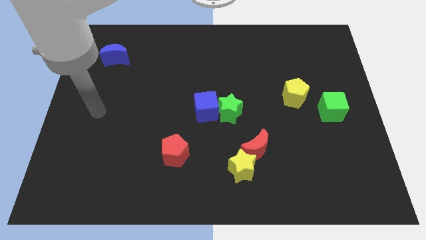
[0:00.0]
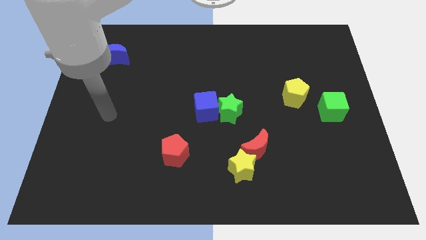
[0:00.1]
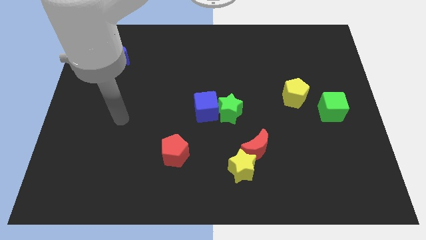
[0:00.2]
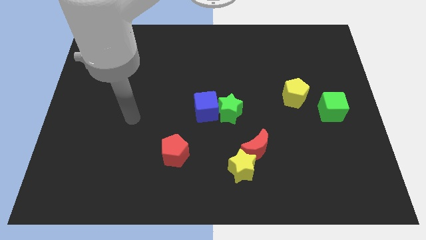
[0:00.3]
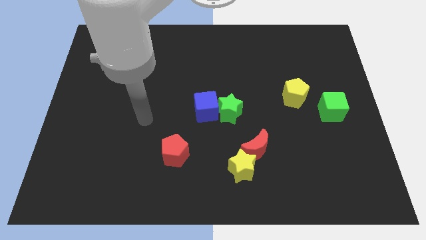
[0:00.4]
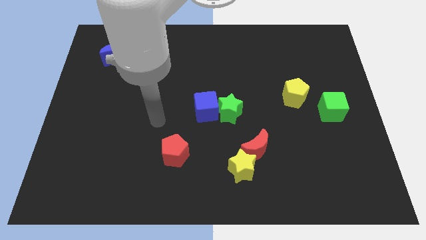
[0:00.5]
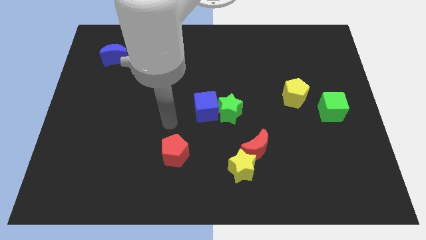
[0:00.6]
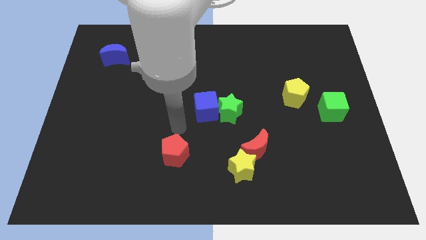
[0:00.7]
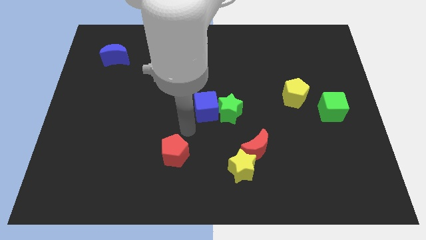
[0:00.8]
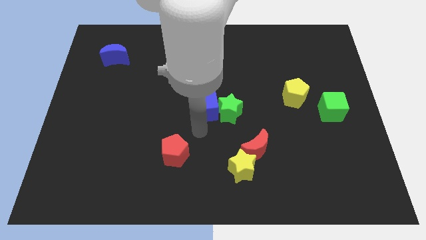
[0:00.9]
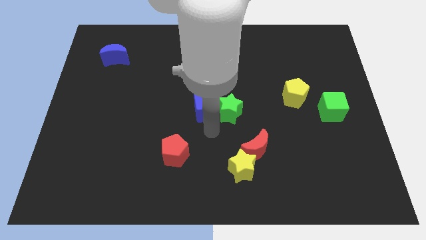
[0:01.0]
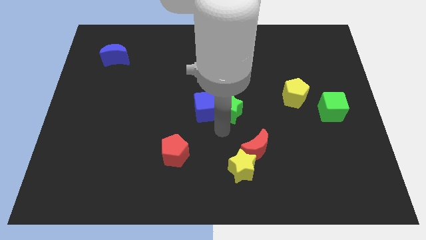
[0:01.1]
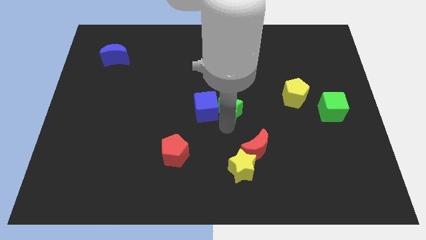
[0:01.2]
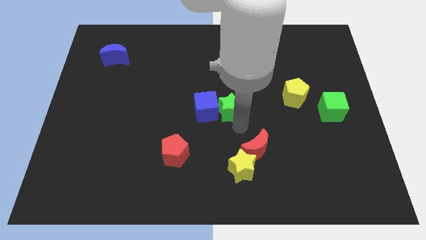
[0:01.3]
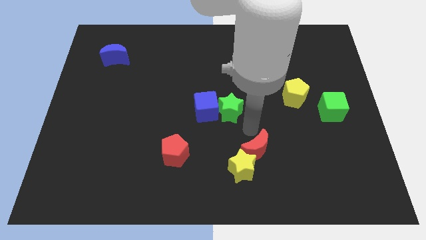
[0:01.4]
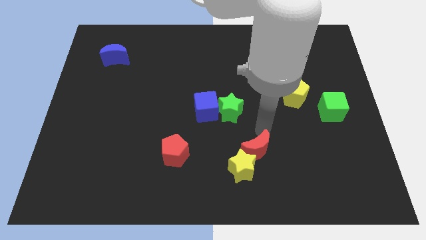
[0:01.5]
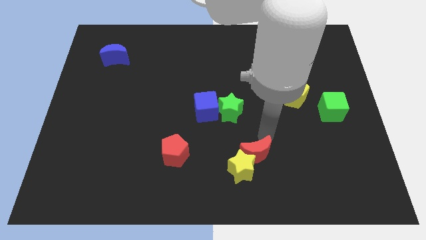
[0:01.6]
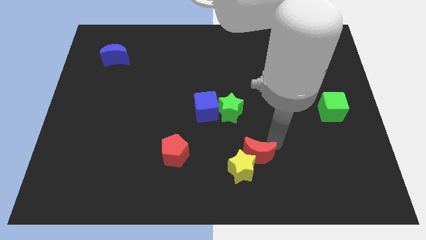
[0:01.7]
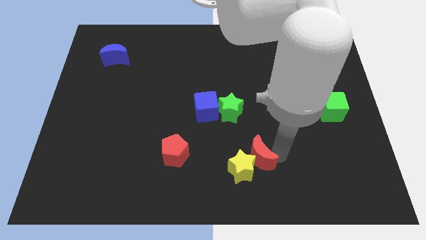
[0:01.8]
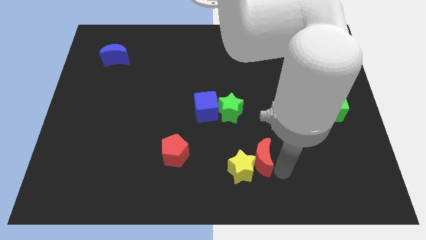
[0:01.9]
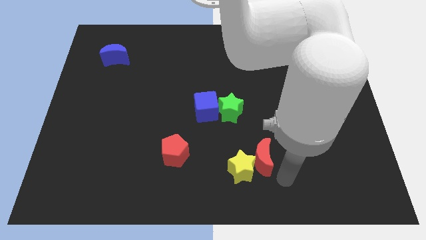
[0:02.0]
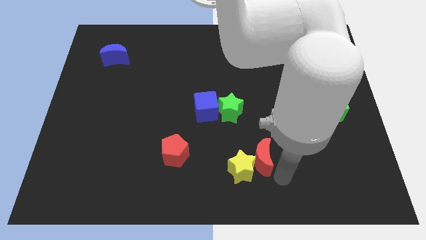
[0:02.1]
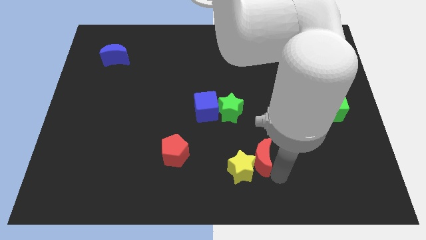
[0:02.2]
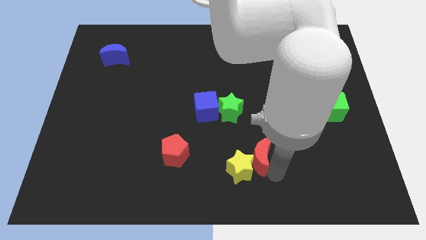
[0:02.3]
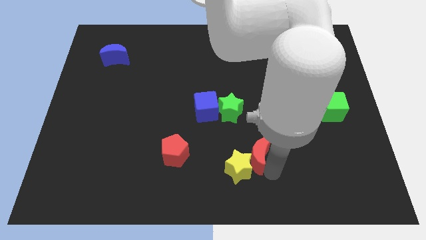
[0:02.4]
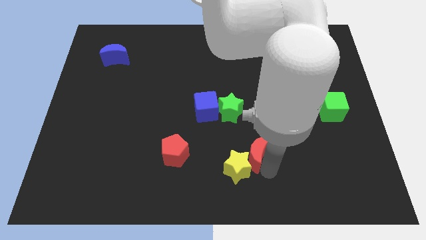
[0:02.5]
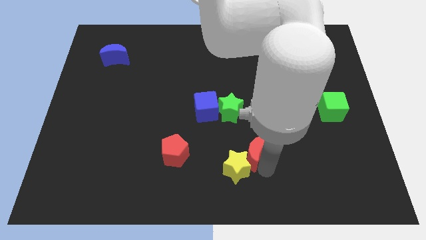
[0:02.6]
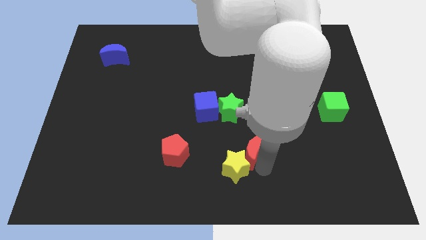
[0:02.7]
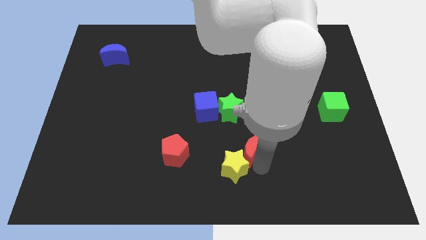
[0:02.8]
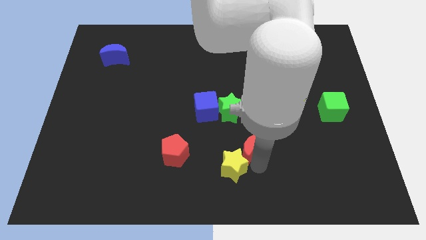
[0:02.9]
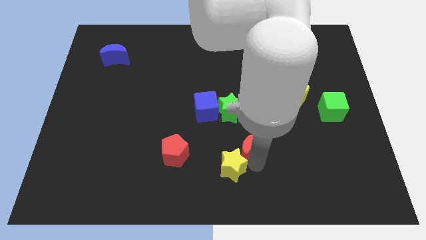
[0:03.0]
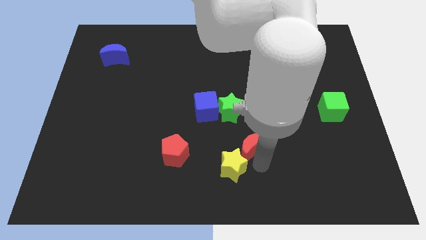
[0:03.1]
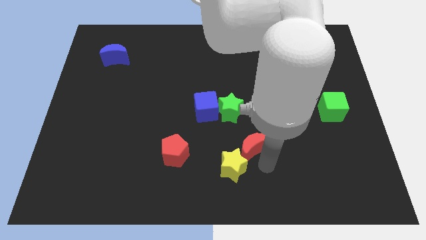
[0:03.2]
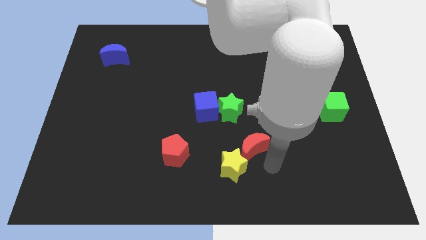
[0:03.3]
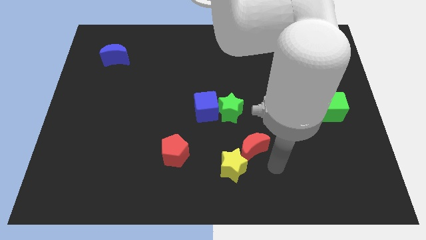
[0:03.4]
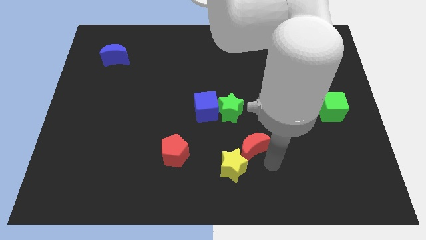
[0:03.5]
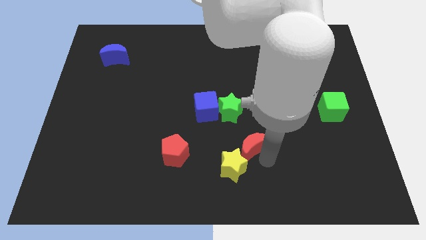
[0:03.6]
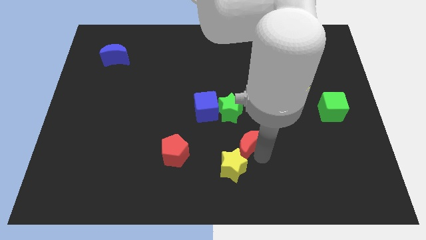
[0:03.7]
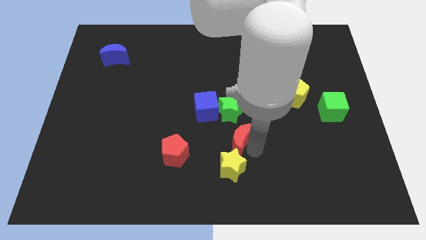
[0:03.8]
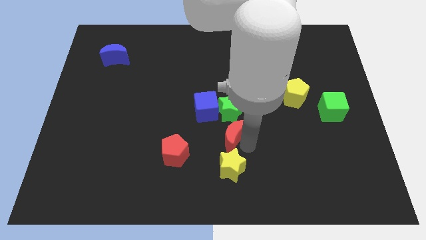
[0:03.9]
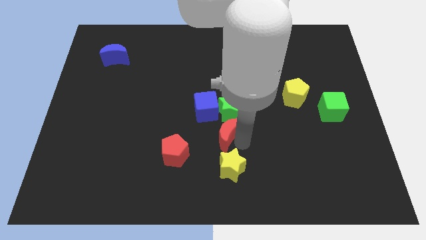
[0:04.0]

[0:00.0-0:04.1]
move the red moon diagonally upwards and to the left somewhat

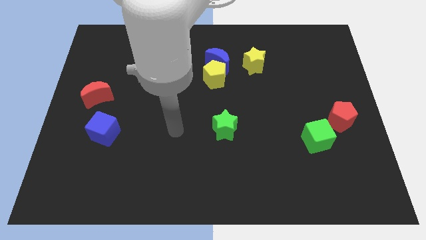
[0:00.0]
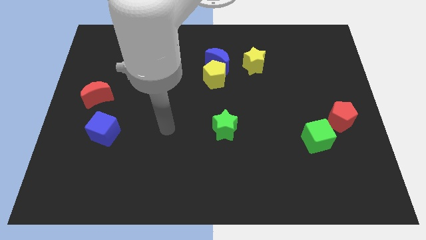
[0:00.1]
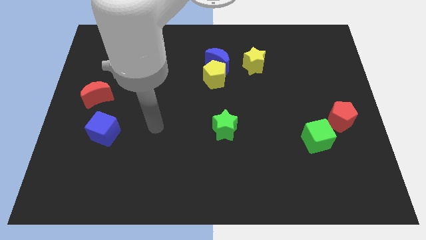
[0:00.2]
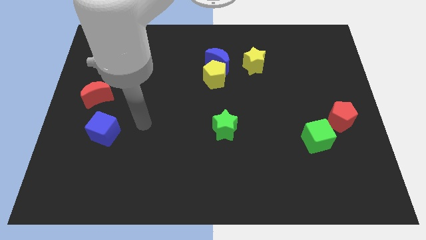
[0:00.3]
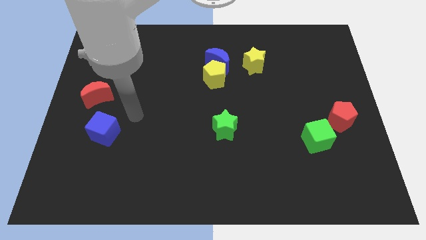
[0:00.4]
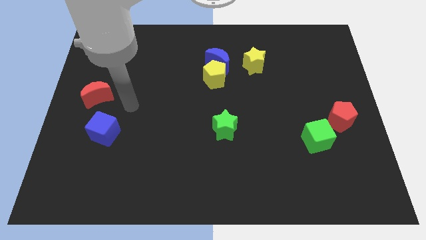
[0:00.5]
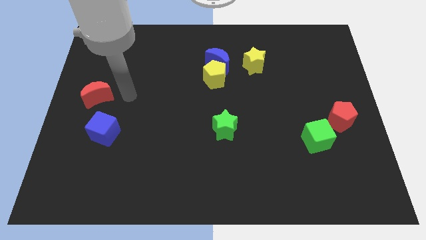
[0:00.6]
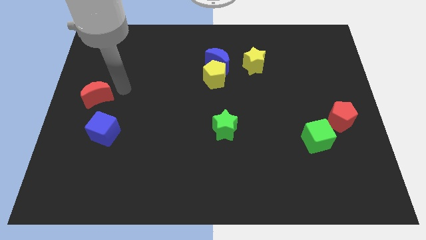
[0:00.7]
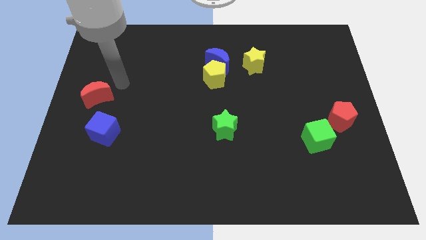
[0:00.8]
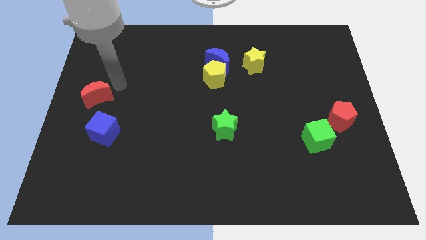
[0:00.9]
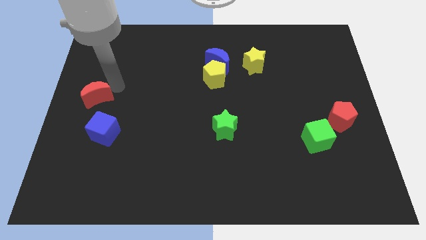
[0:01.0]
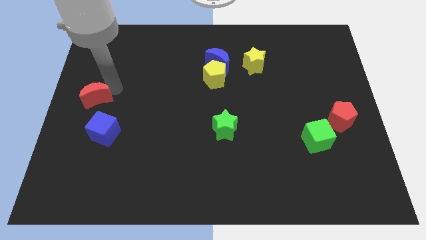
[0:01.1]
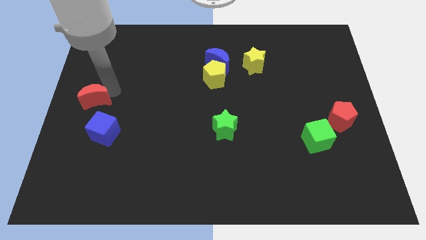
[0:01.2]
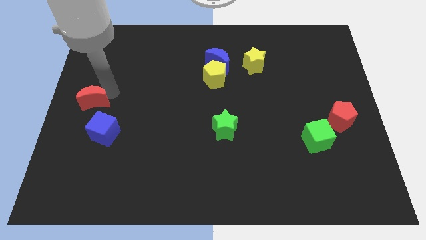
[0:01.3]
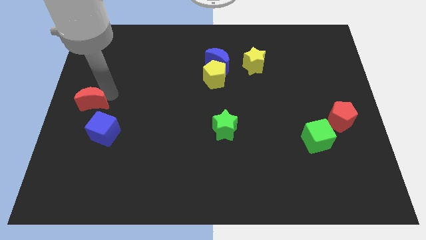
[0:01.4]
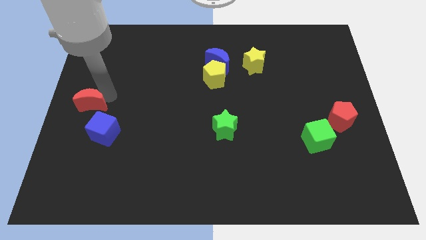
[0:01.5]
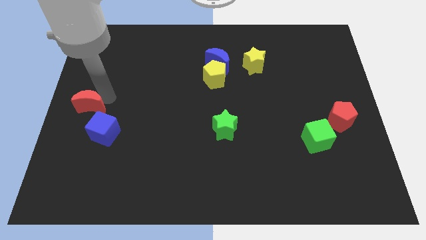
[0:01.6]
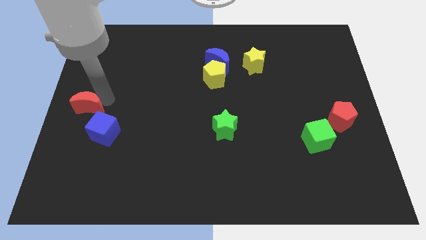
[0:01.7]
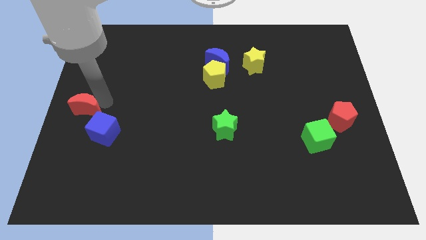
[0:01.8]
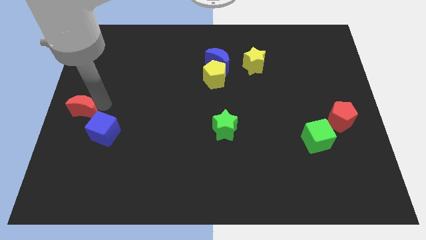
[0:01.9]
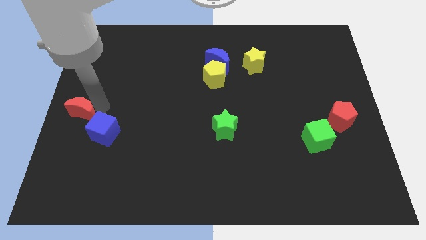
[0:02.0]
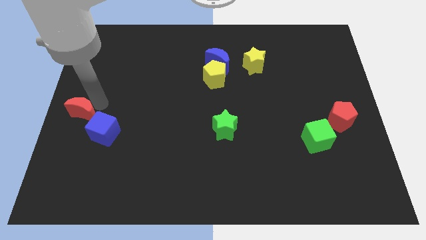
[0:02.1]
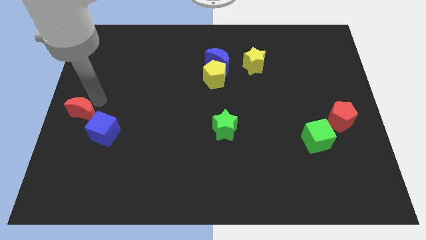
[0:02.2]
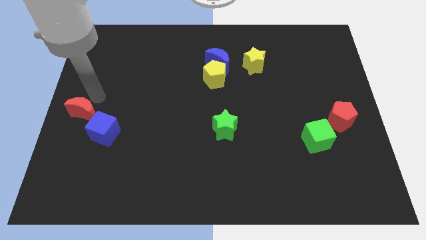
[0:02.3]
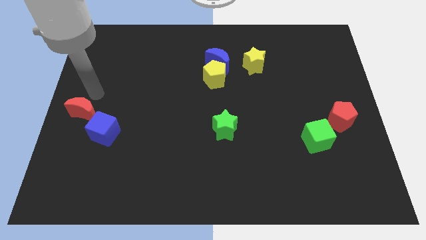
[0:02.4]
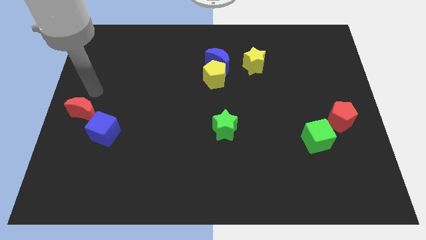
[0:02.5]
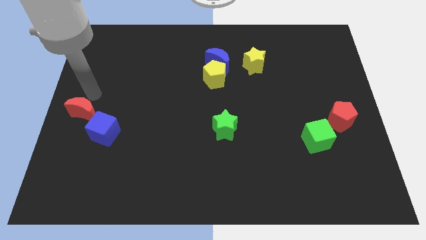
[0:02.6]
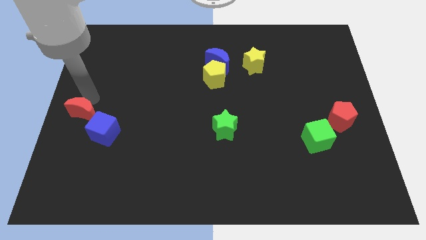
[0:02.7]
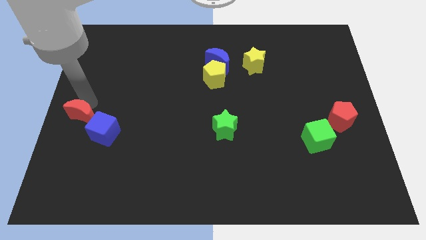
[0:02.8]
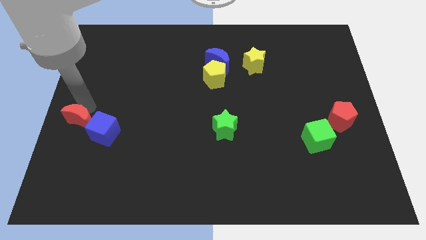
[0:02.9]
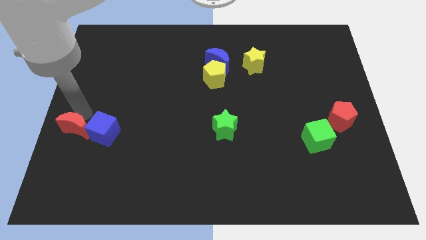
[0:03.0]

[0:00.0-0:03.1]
move the red moon downwards a little

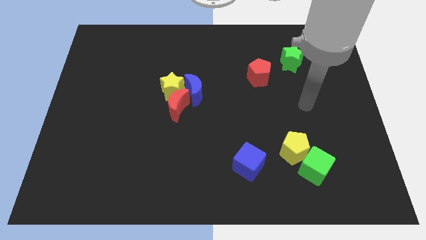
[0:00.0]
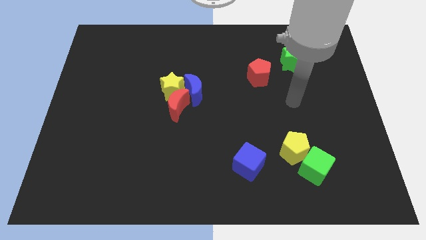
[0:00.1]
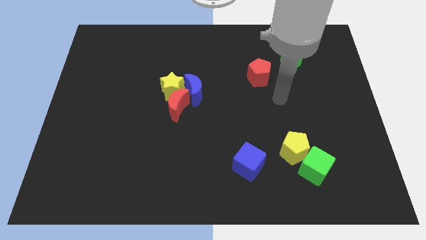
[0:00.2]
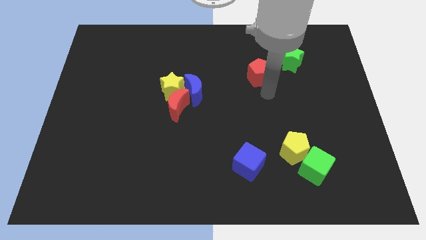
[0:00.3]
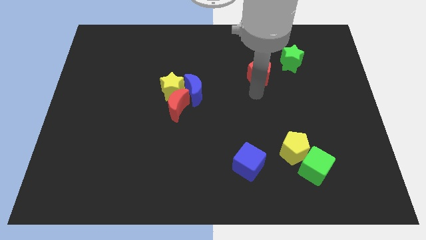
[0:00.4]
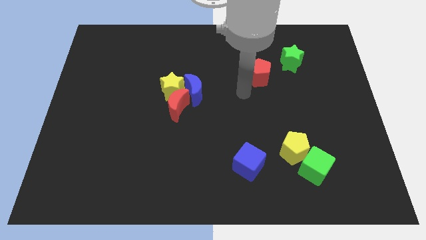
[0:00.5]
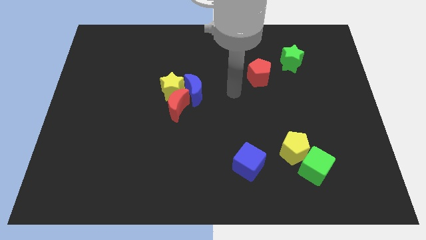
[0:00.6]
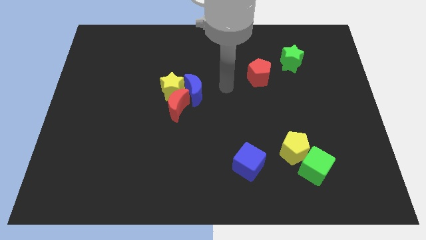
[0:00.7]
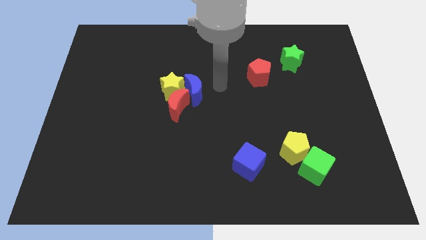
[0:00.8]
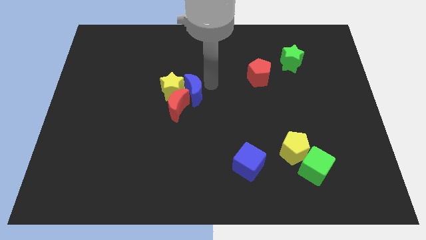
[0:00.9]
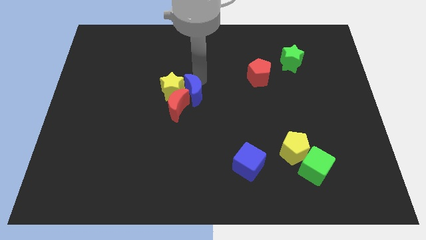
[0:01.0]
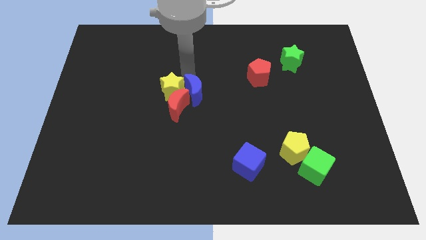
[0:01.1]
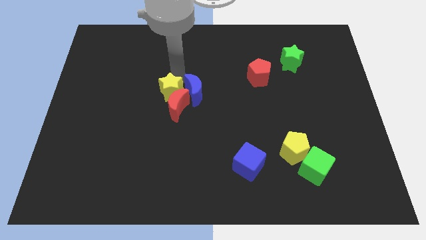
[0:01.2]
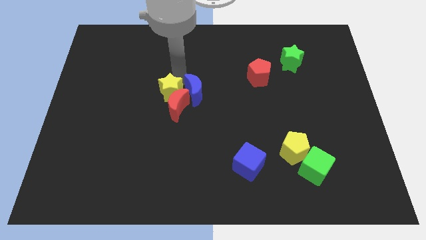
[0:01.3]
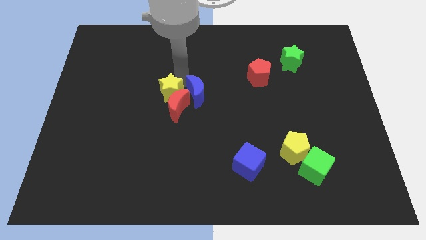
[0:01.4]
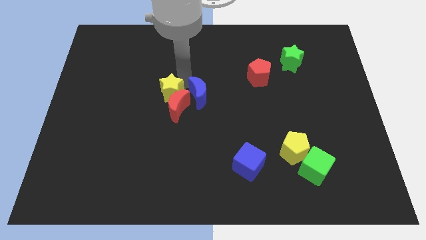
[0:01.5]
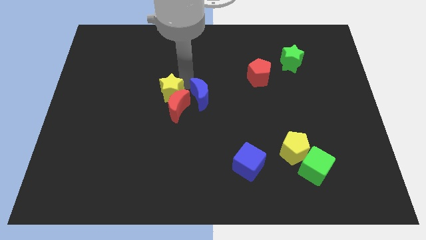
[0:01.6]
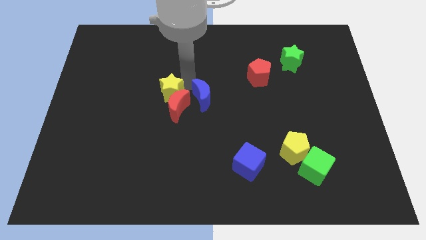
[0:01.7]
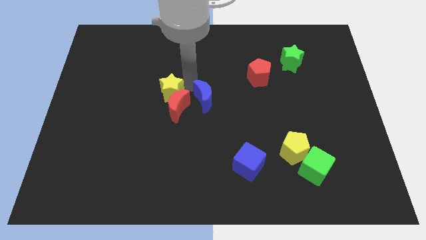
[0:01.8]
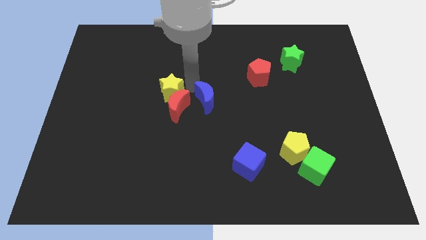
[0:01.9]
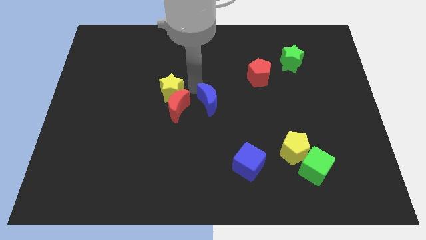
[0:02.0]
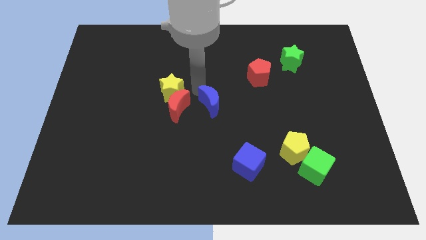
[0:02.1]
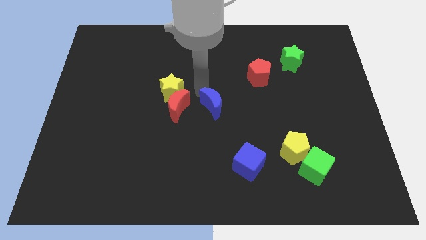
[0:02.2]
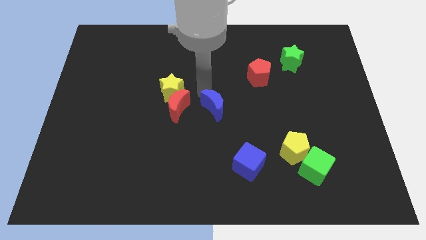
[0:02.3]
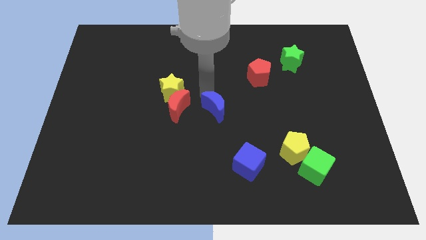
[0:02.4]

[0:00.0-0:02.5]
push the blue moon a little diagonally down and to the right
